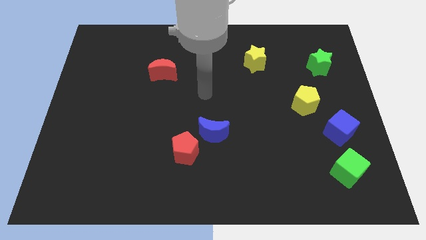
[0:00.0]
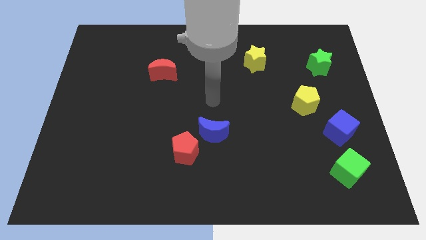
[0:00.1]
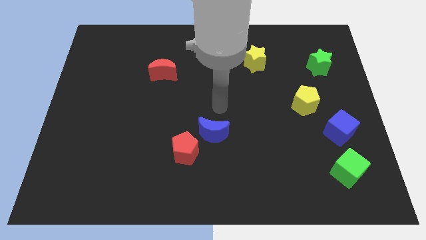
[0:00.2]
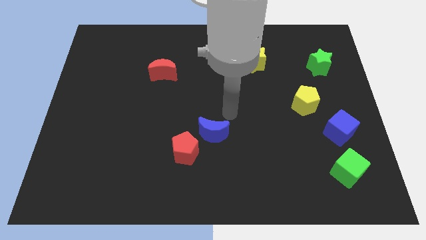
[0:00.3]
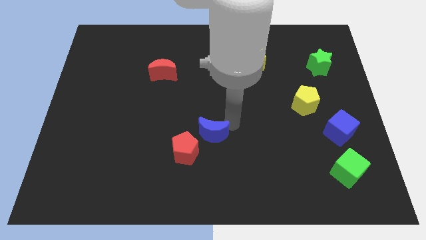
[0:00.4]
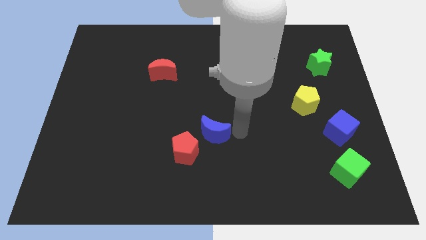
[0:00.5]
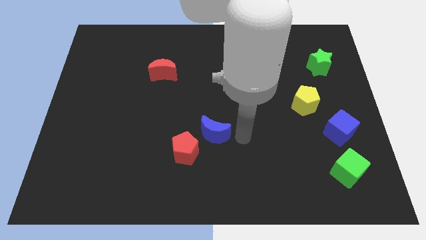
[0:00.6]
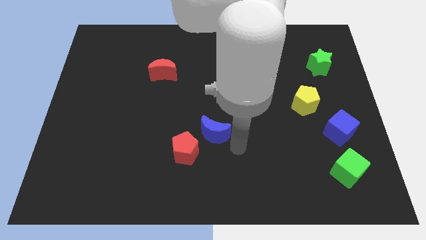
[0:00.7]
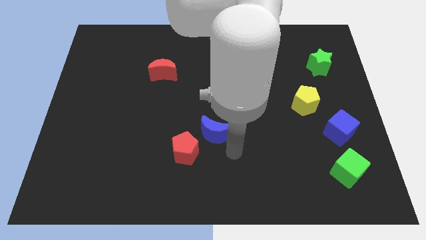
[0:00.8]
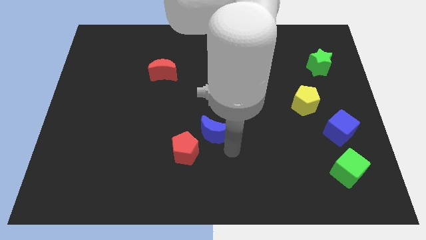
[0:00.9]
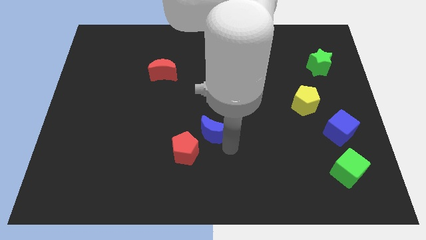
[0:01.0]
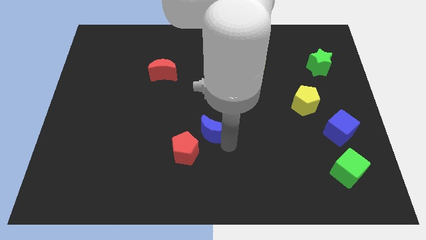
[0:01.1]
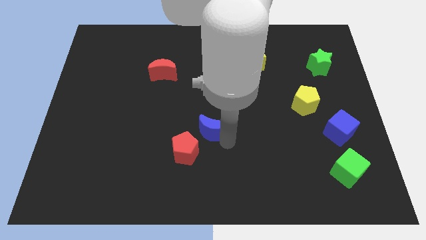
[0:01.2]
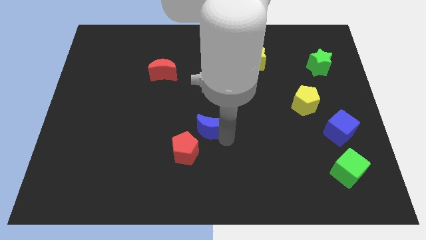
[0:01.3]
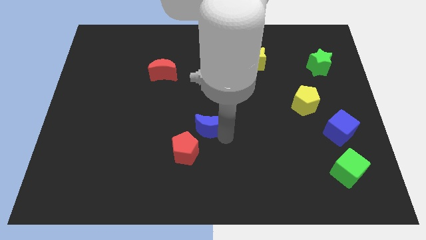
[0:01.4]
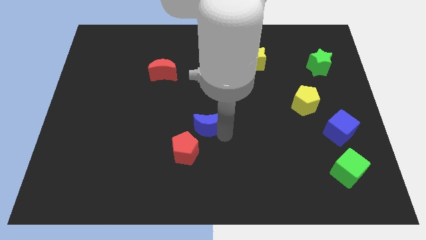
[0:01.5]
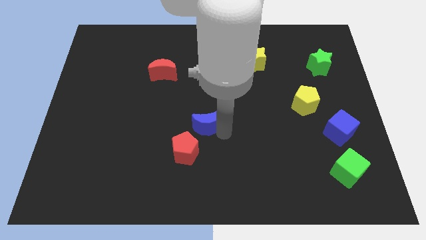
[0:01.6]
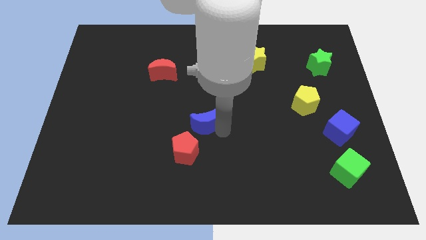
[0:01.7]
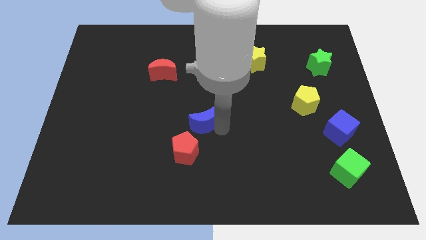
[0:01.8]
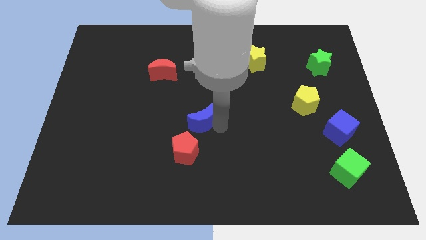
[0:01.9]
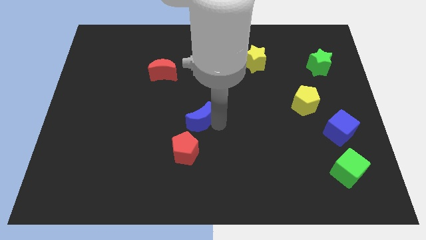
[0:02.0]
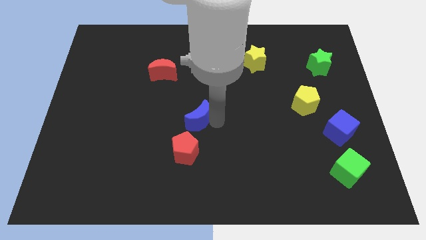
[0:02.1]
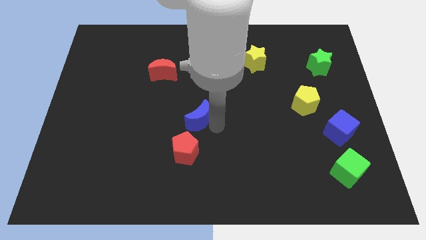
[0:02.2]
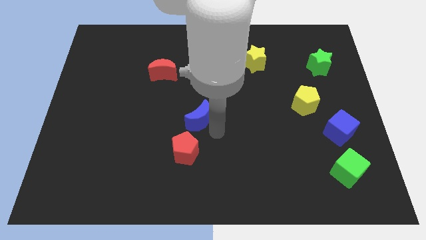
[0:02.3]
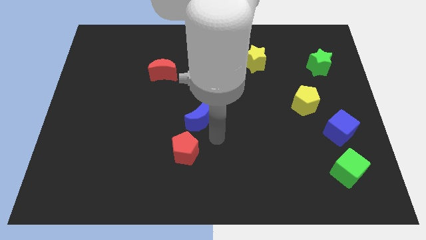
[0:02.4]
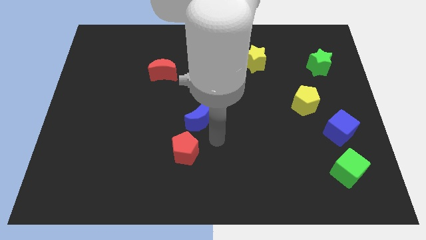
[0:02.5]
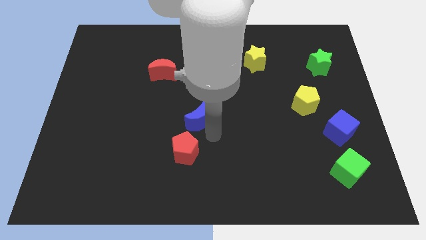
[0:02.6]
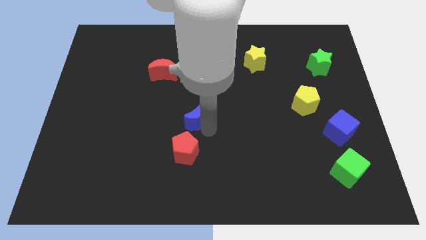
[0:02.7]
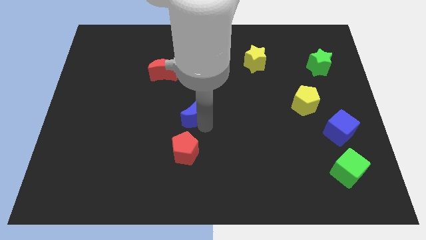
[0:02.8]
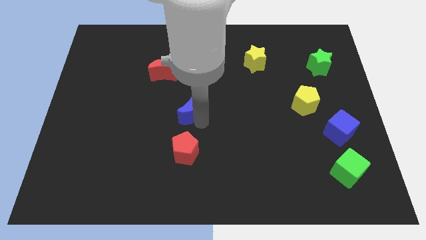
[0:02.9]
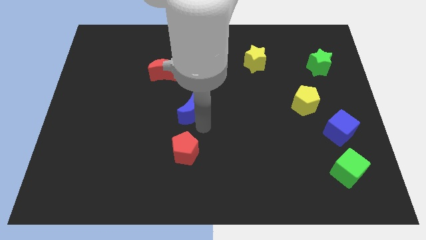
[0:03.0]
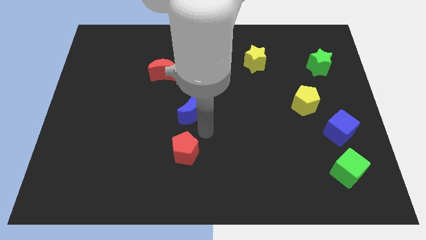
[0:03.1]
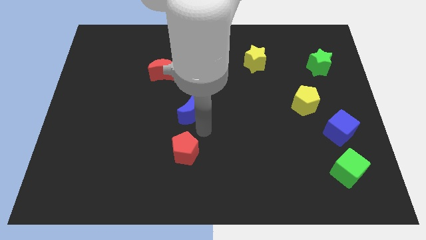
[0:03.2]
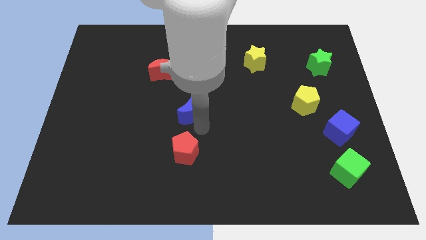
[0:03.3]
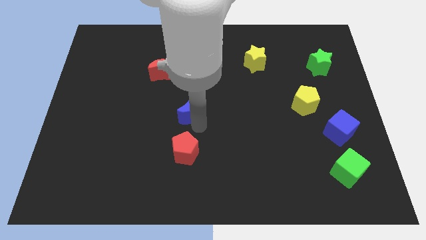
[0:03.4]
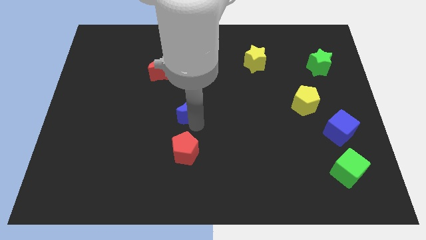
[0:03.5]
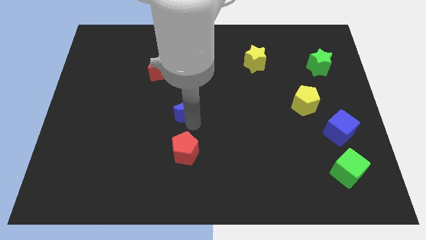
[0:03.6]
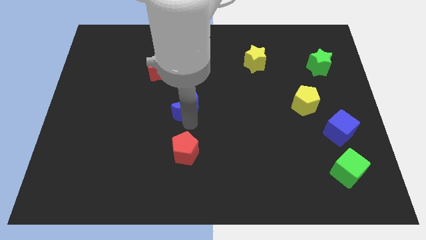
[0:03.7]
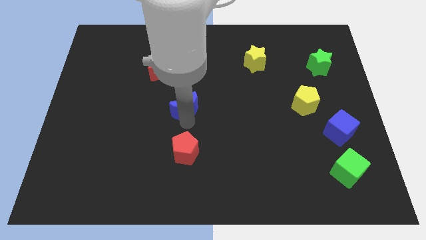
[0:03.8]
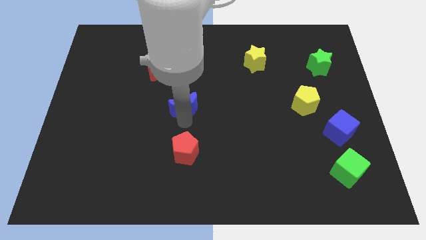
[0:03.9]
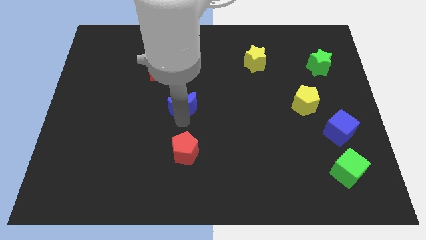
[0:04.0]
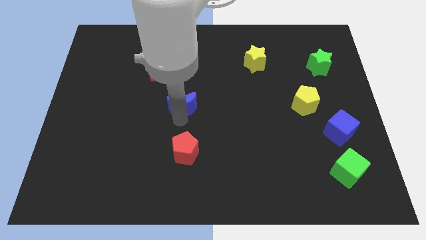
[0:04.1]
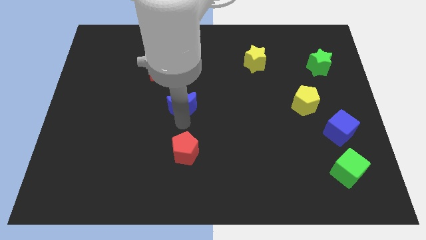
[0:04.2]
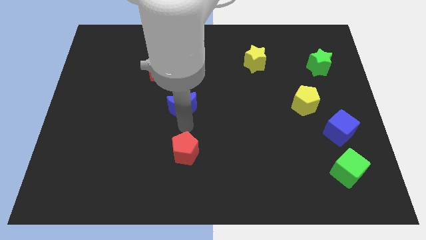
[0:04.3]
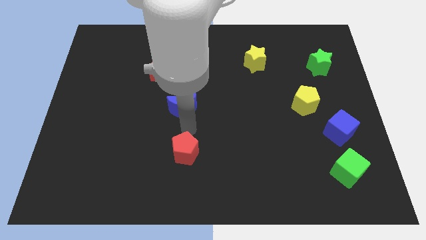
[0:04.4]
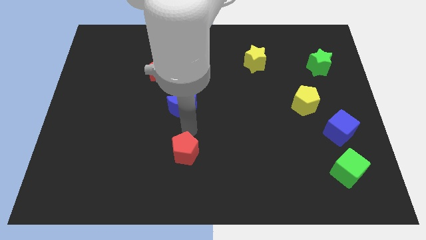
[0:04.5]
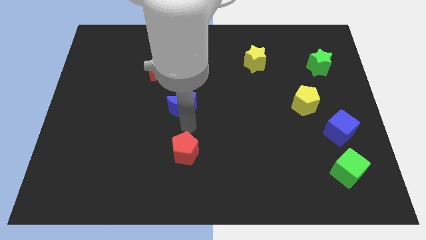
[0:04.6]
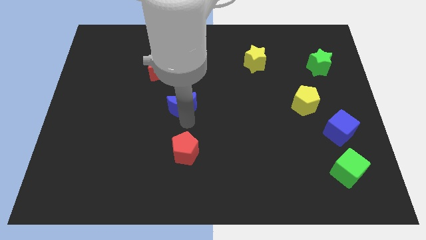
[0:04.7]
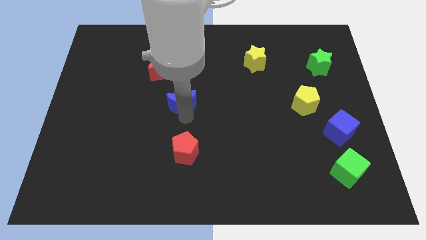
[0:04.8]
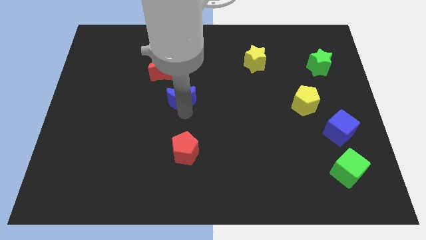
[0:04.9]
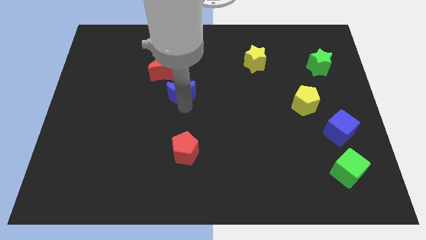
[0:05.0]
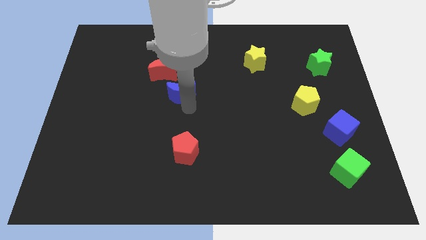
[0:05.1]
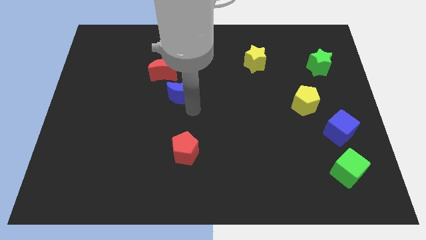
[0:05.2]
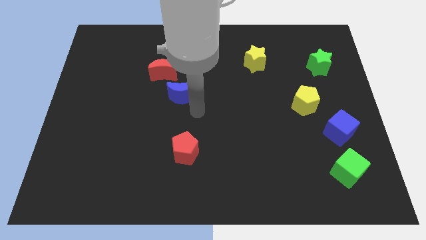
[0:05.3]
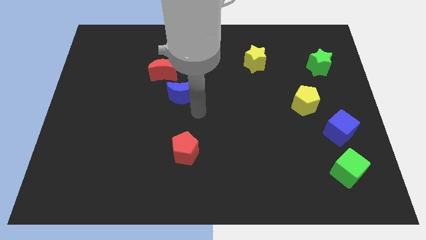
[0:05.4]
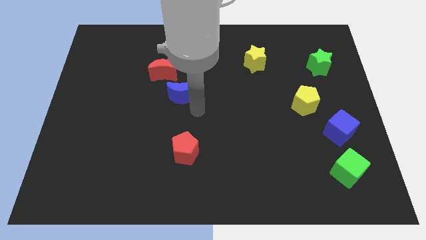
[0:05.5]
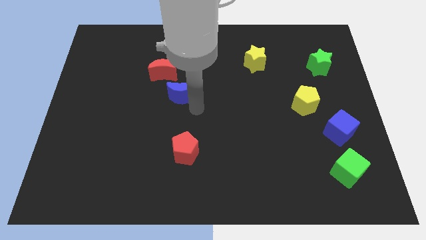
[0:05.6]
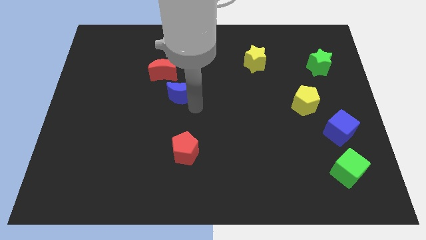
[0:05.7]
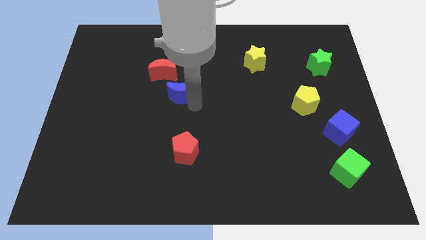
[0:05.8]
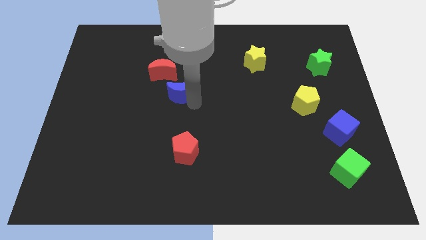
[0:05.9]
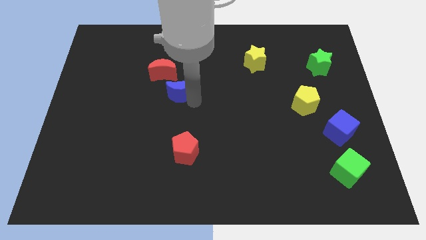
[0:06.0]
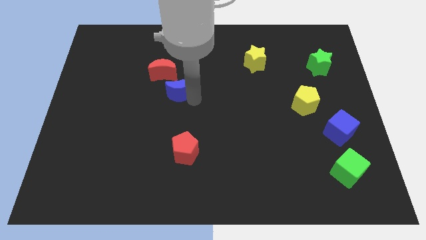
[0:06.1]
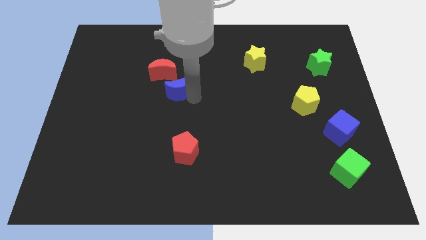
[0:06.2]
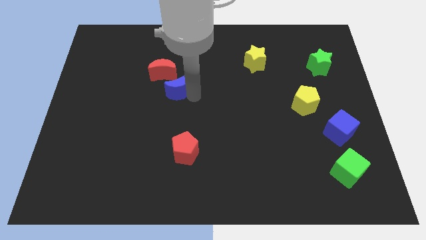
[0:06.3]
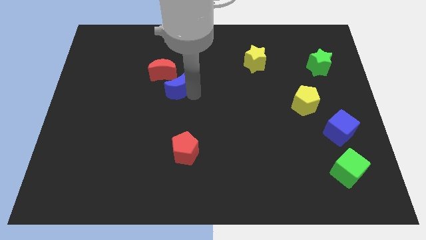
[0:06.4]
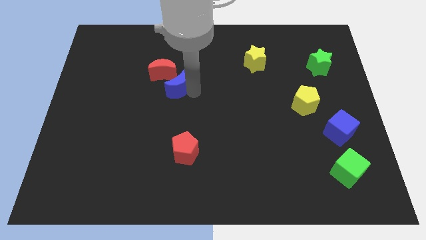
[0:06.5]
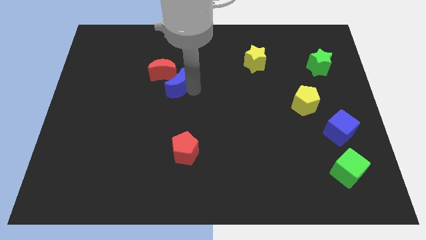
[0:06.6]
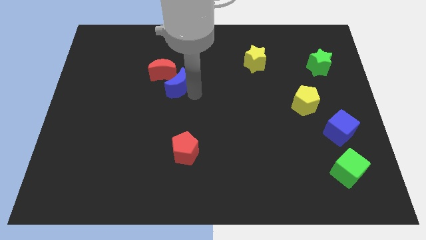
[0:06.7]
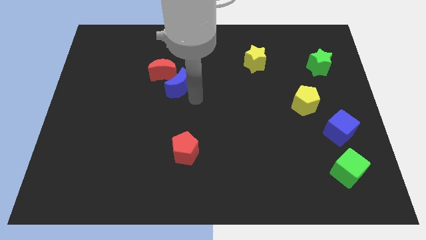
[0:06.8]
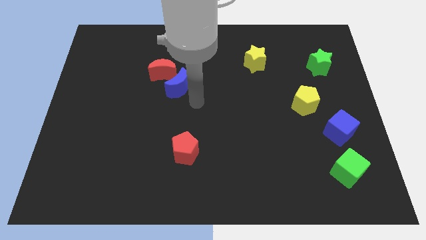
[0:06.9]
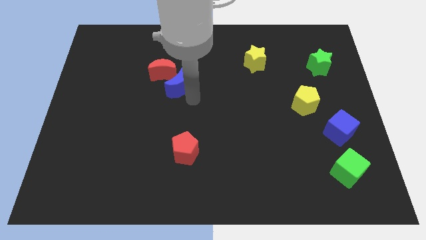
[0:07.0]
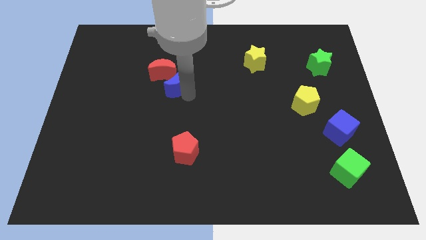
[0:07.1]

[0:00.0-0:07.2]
move the blue moon to the red moon

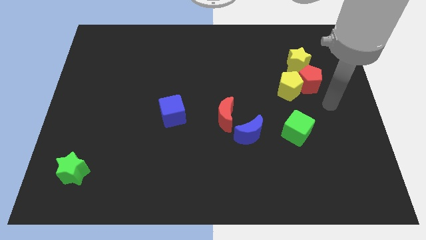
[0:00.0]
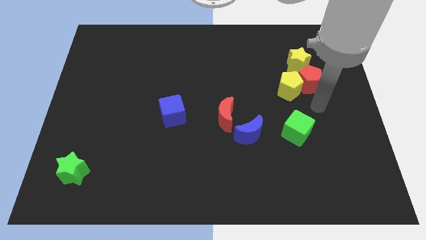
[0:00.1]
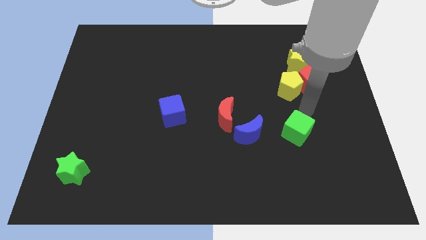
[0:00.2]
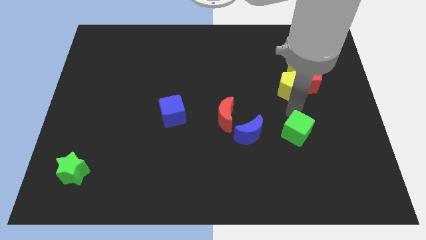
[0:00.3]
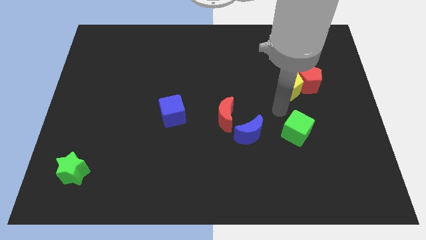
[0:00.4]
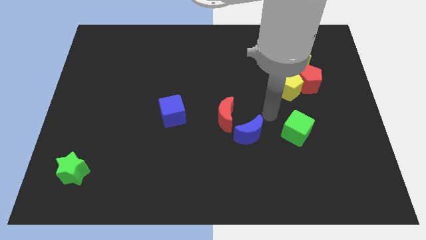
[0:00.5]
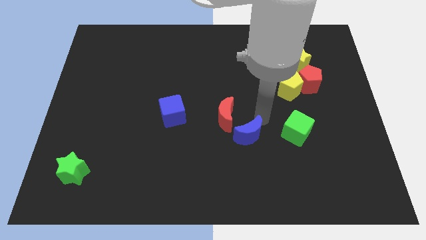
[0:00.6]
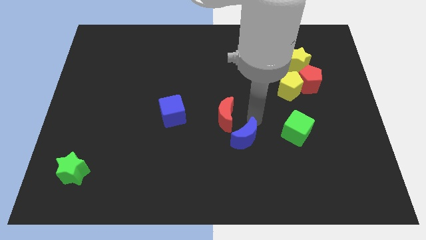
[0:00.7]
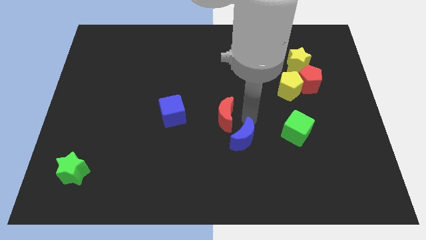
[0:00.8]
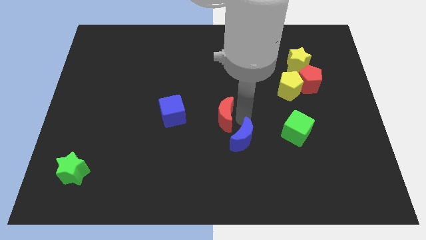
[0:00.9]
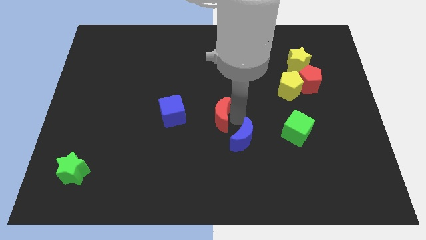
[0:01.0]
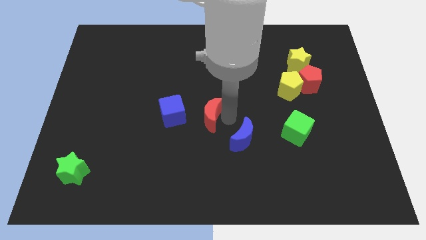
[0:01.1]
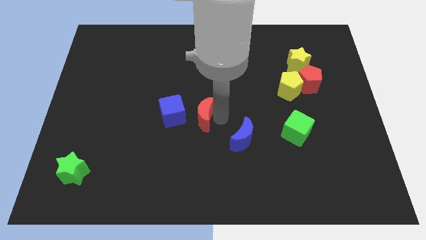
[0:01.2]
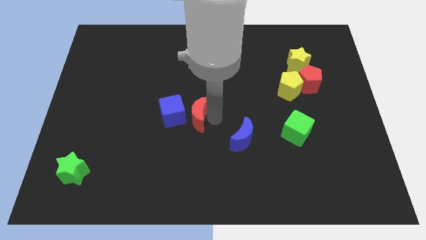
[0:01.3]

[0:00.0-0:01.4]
move the red moon towards the blue cube
